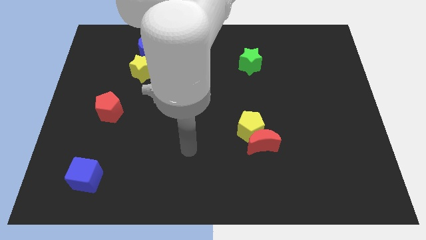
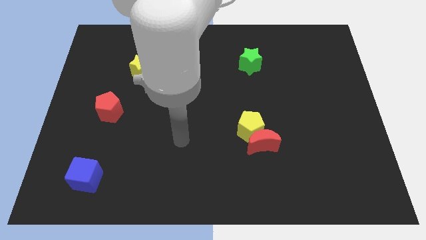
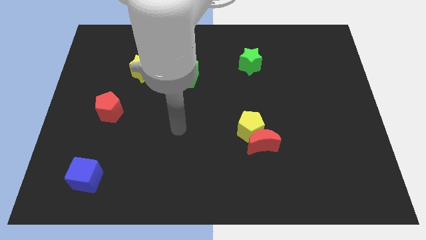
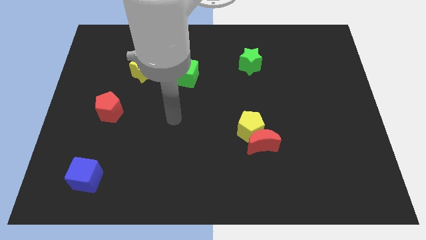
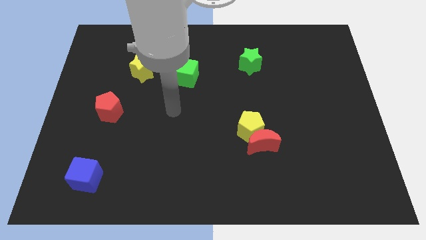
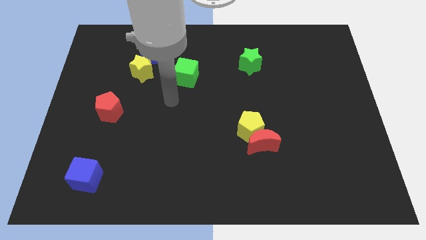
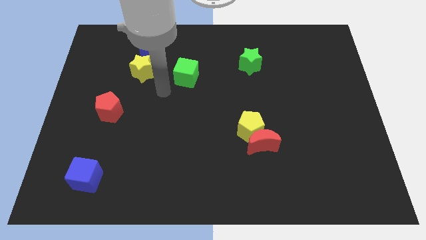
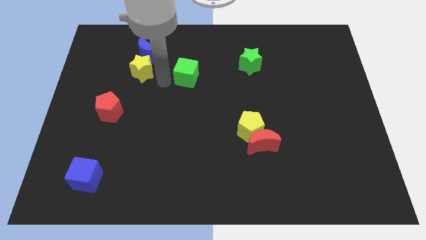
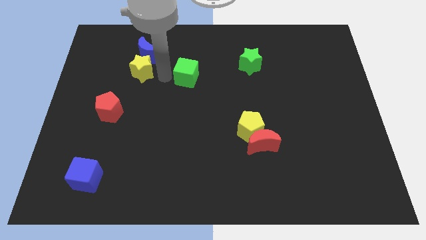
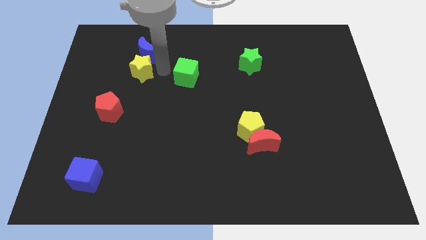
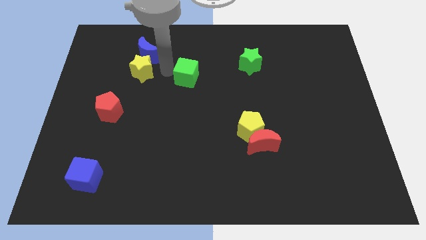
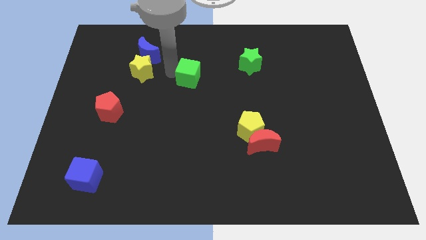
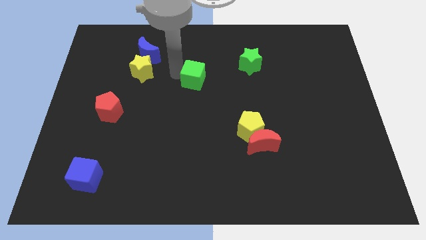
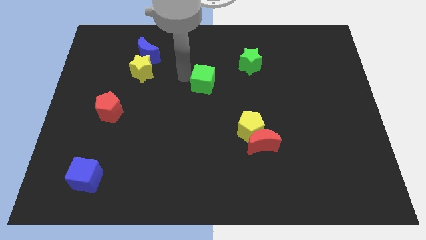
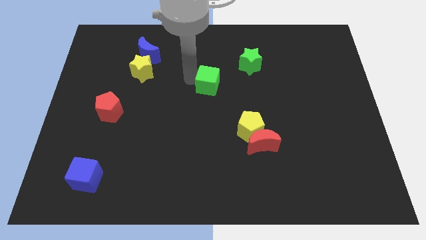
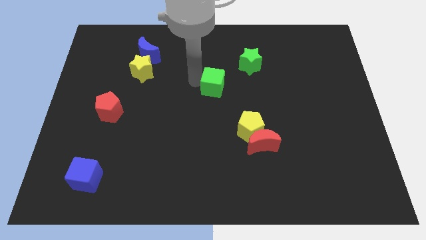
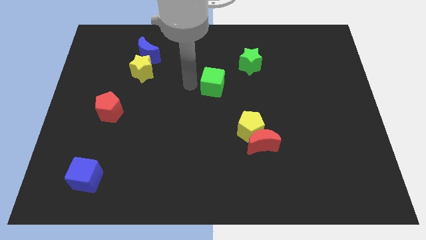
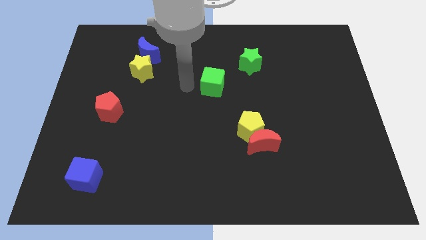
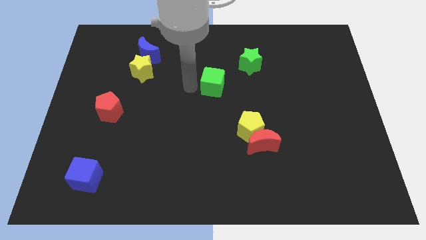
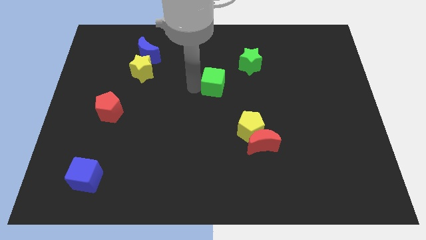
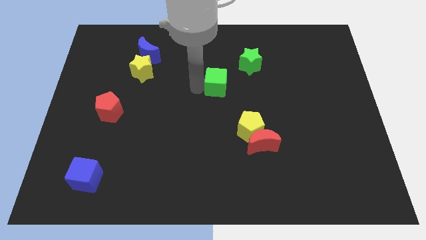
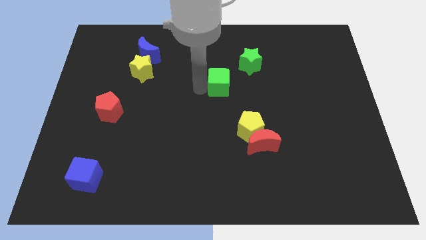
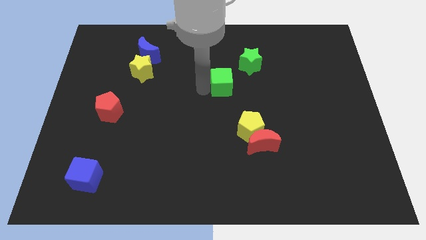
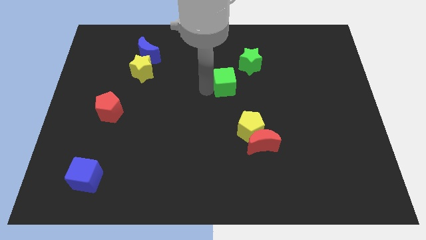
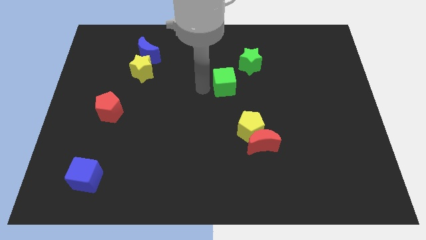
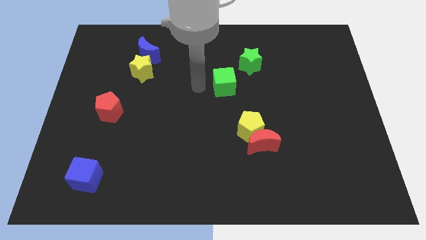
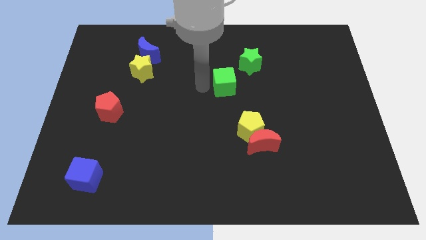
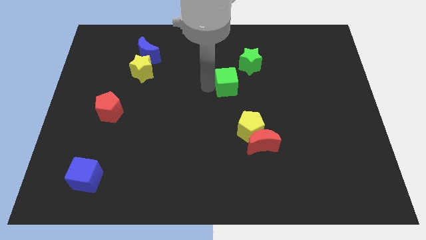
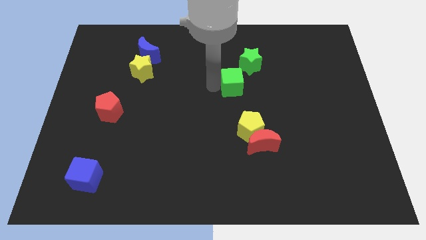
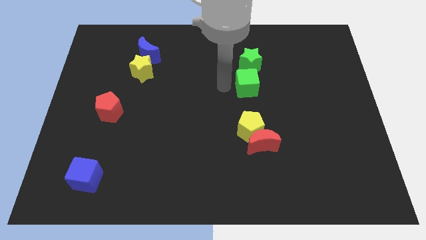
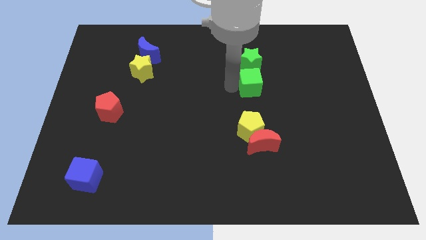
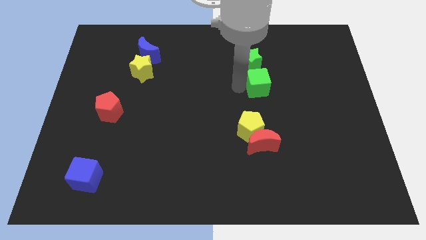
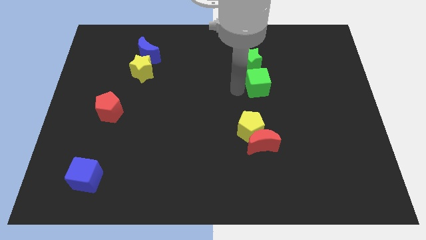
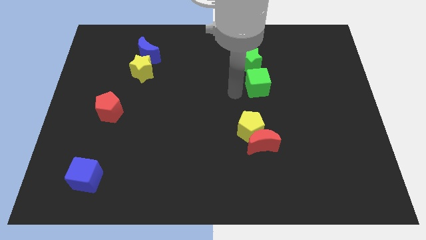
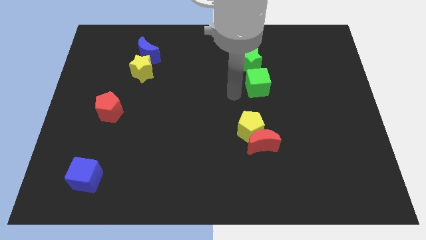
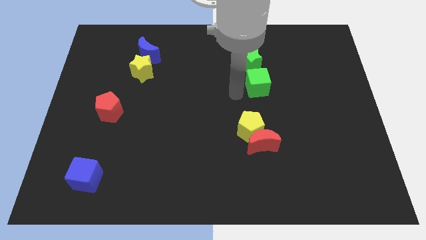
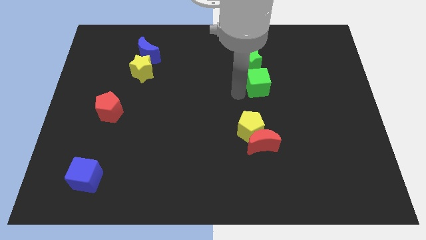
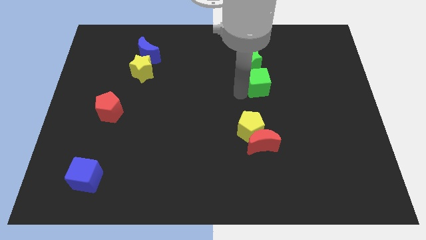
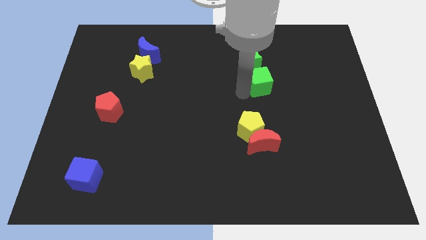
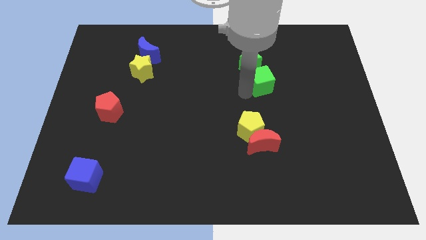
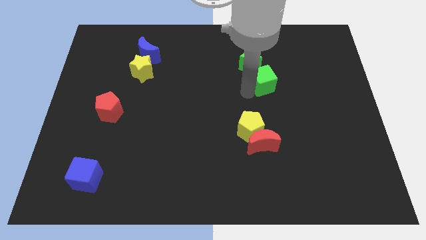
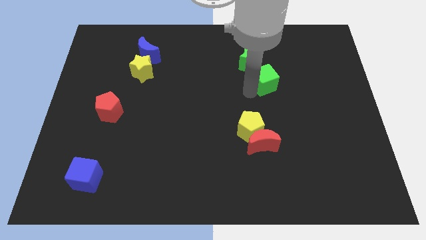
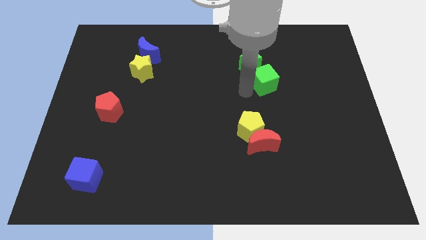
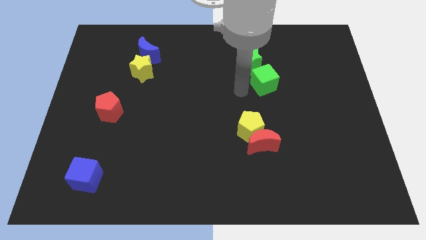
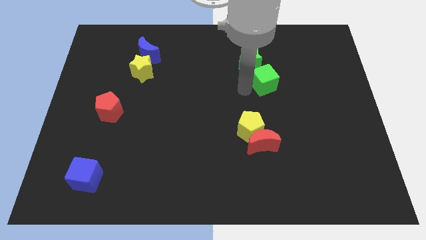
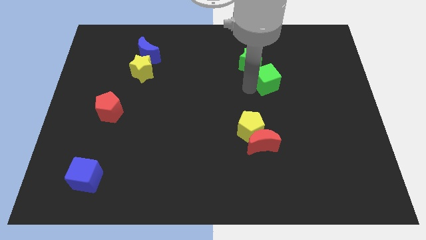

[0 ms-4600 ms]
slide the green cube to the right

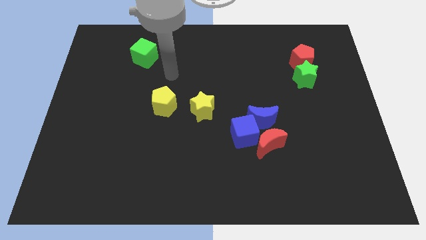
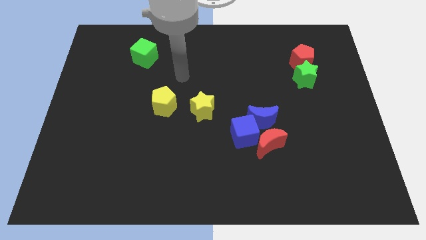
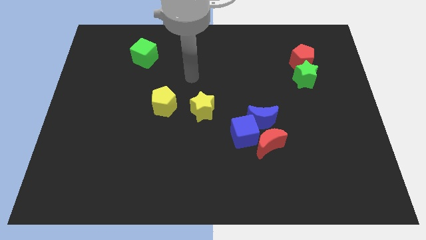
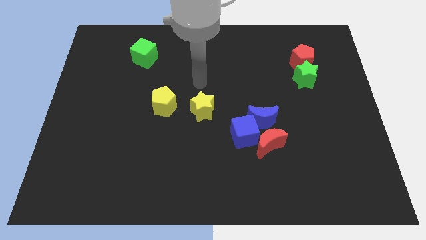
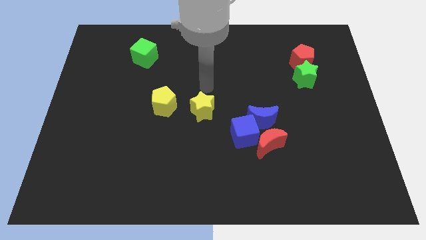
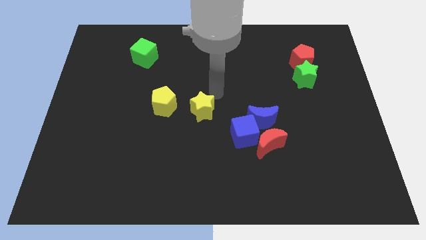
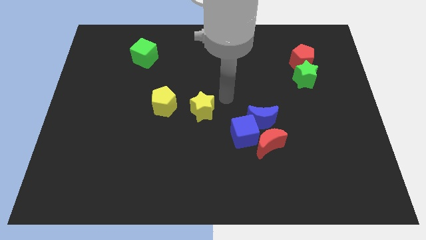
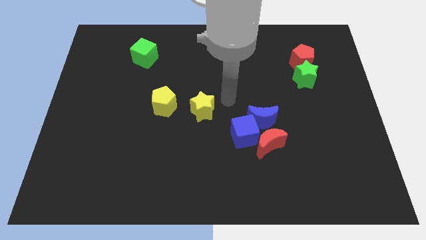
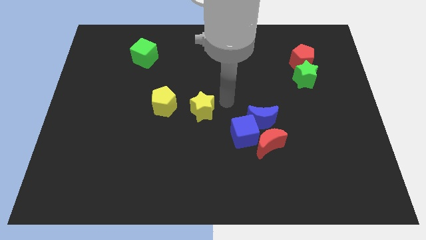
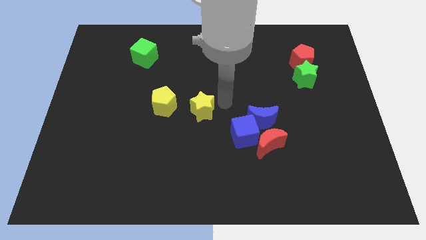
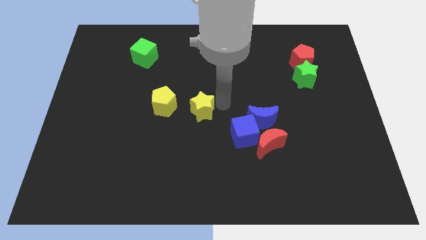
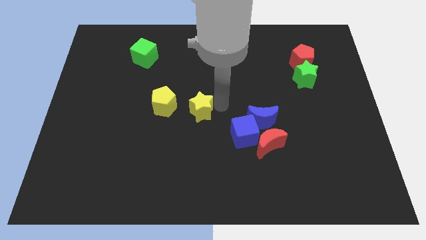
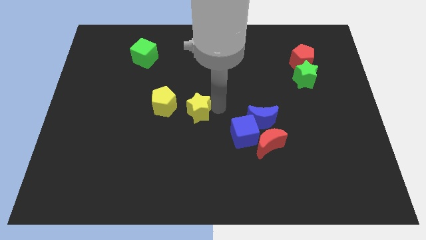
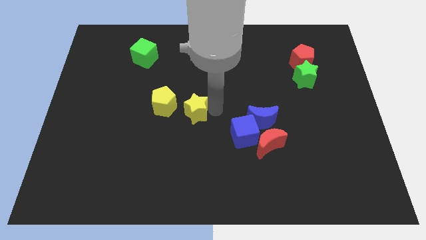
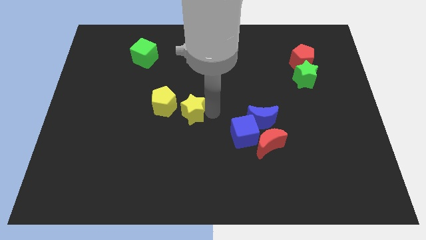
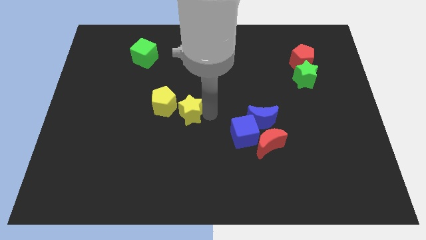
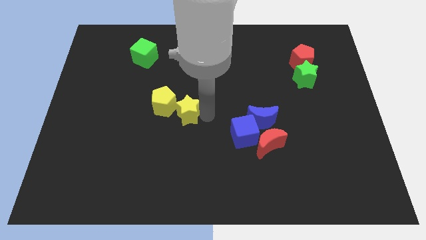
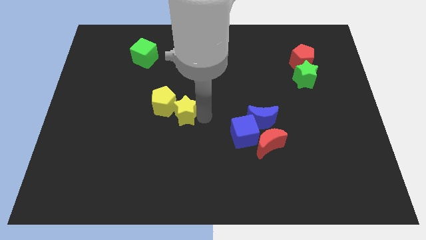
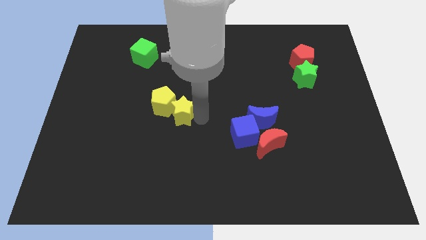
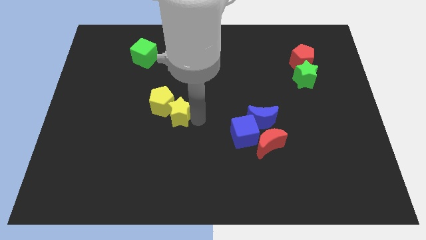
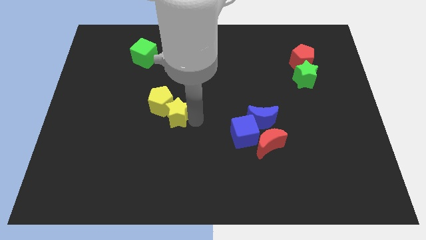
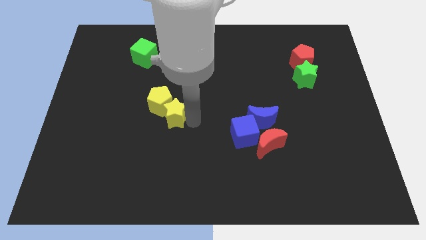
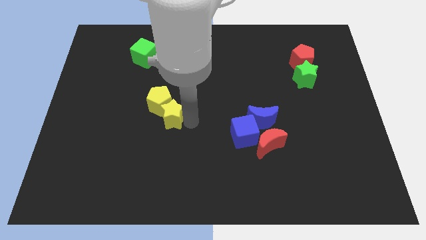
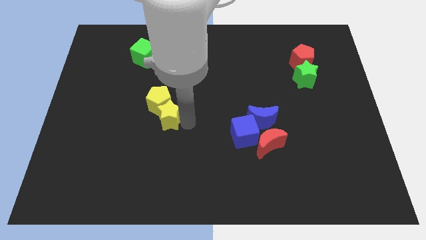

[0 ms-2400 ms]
slide the yellow star left a little bit

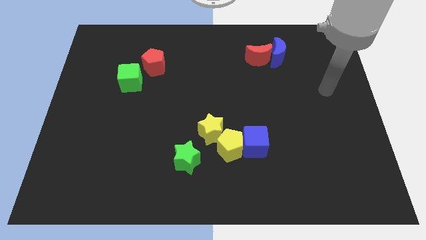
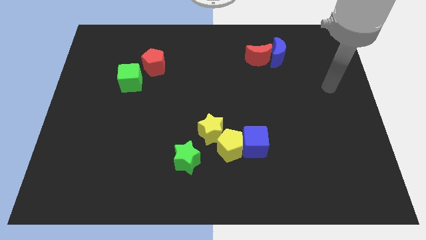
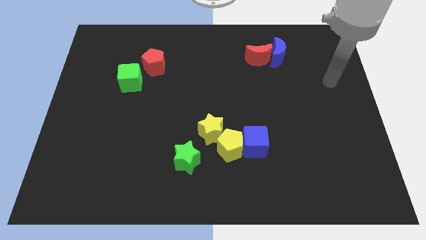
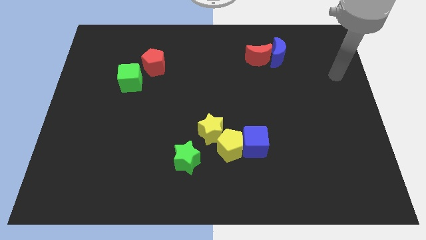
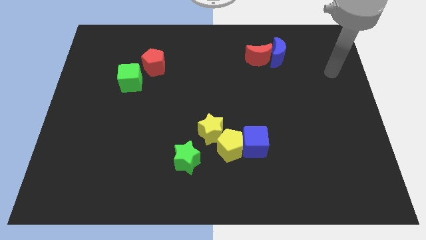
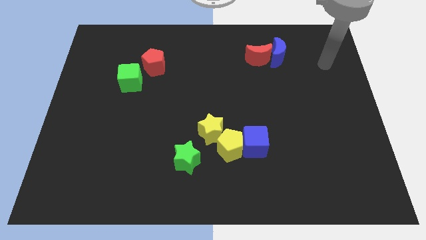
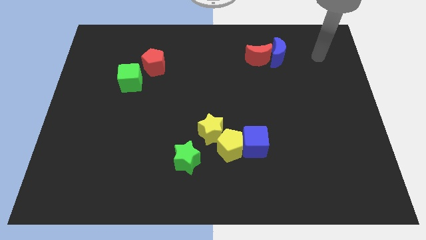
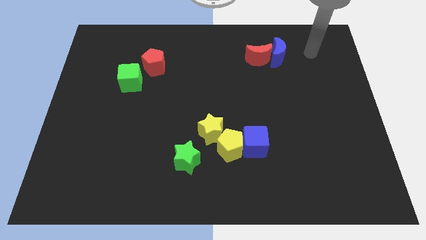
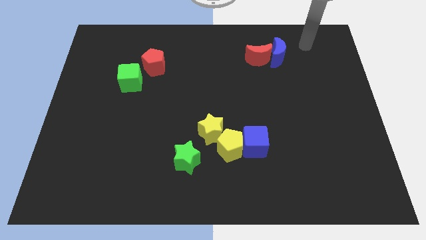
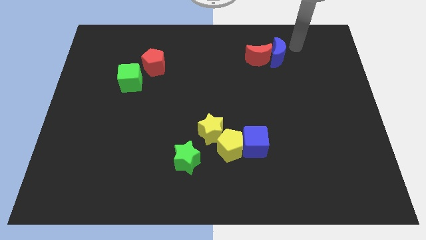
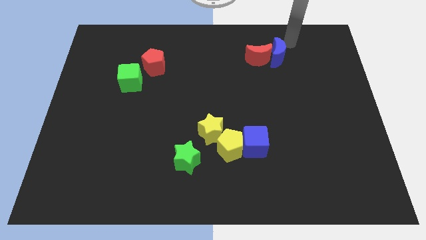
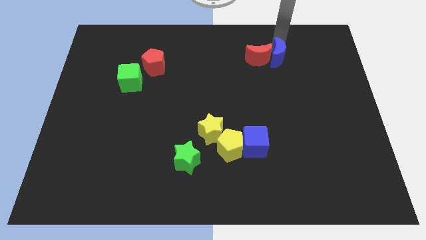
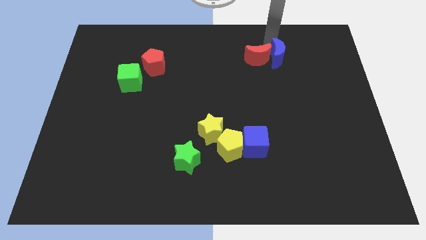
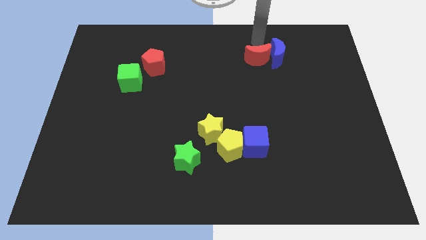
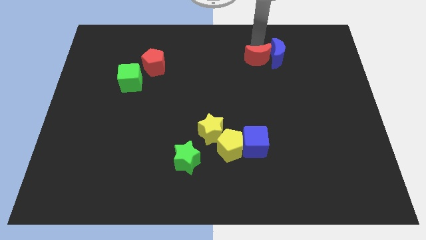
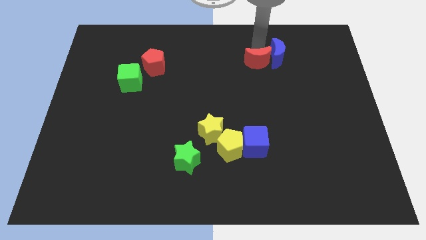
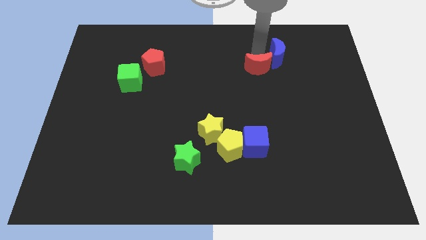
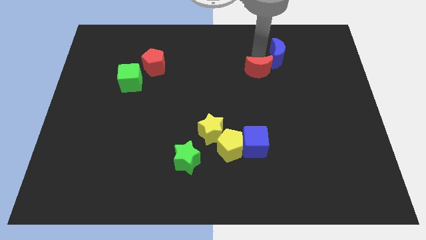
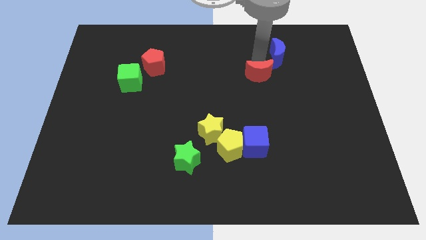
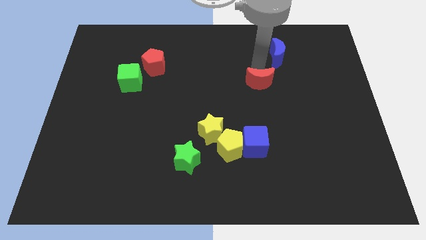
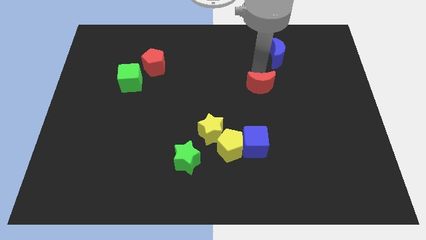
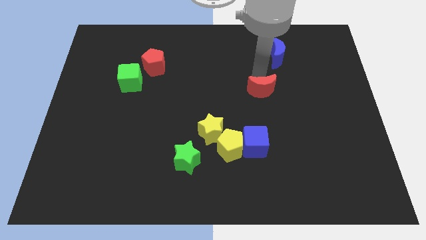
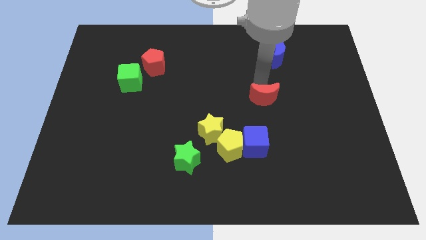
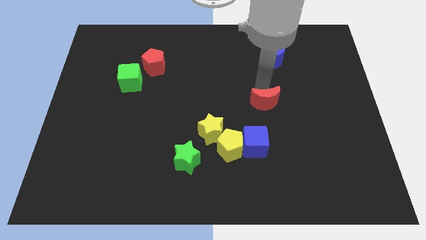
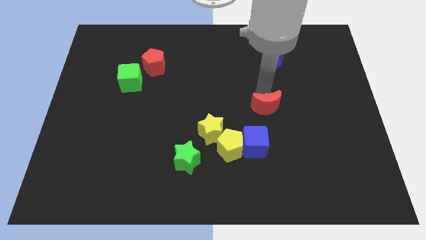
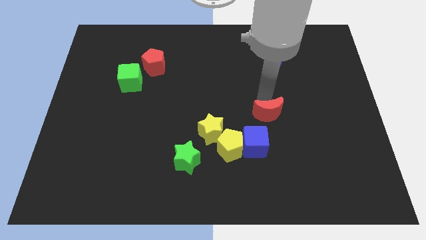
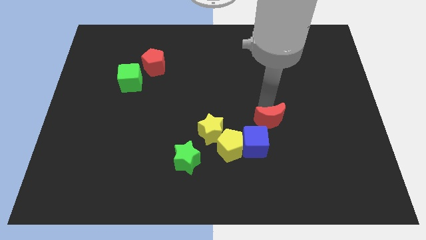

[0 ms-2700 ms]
move the red moon down
